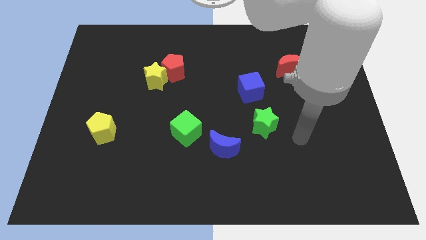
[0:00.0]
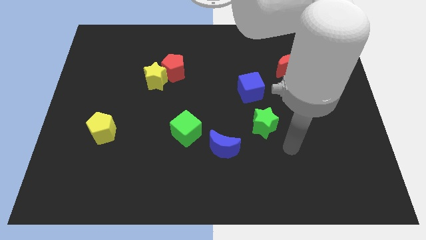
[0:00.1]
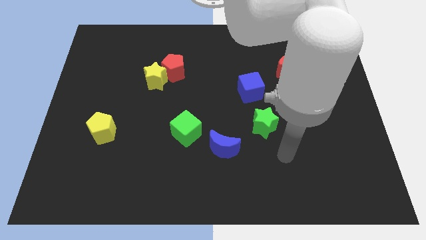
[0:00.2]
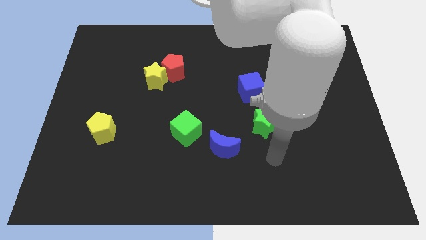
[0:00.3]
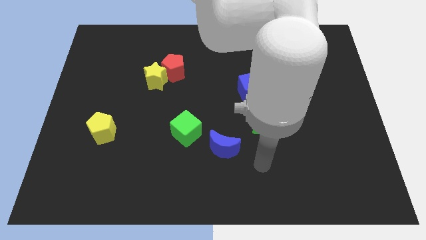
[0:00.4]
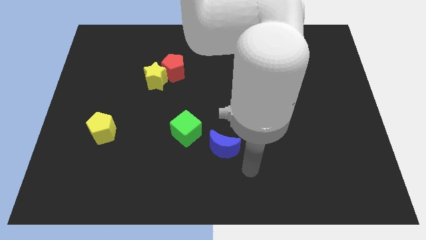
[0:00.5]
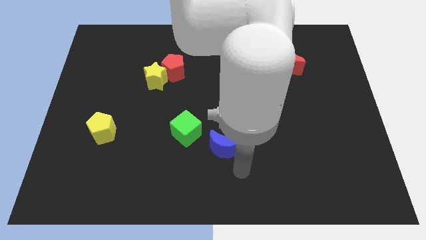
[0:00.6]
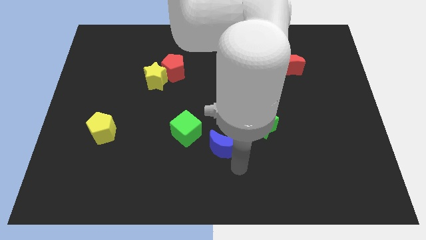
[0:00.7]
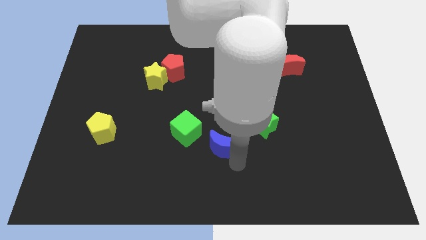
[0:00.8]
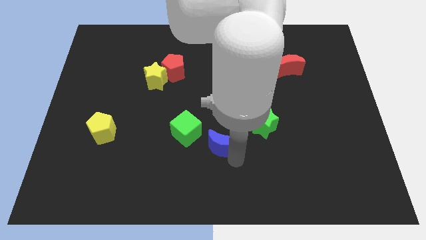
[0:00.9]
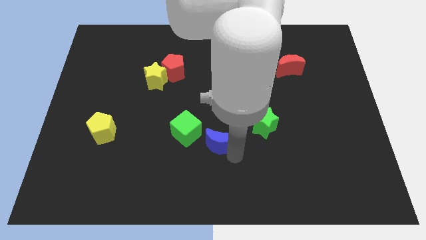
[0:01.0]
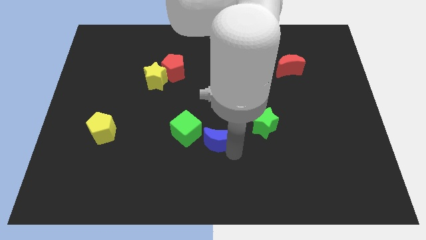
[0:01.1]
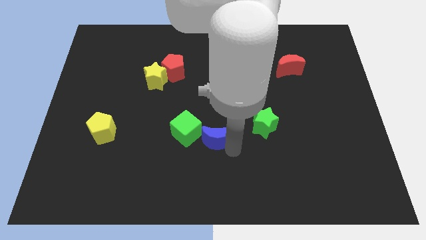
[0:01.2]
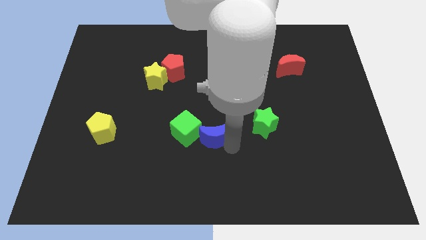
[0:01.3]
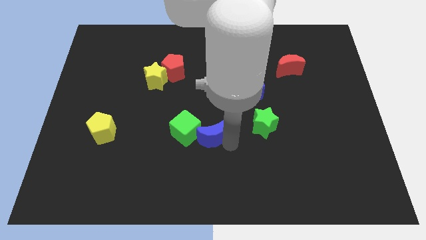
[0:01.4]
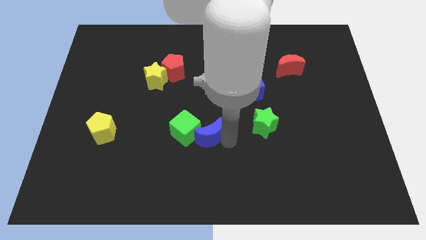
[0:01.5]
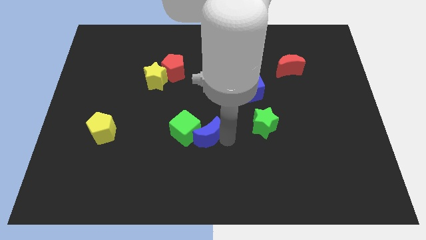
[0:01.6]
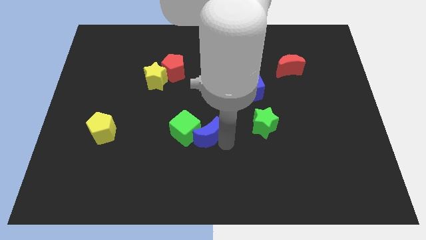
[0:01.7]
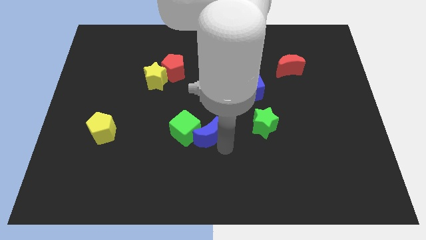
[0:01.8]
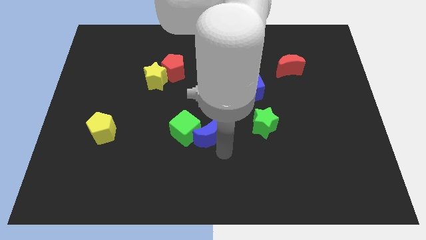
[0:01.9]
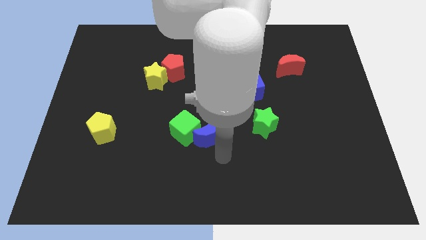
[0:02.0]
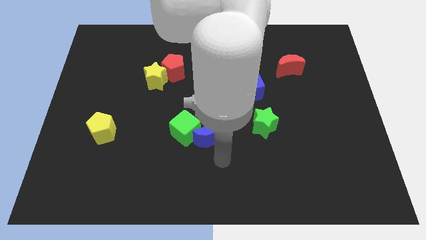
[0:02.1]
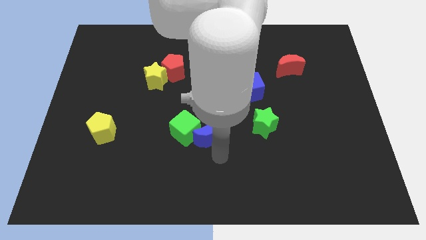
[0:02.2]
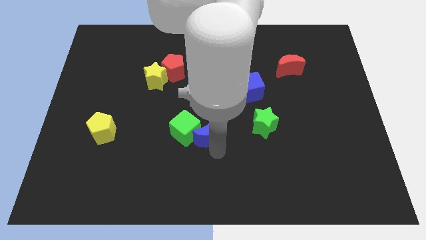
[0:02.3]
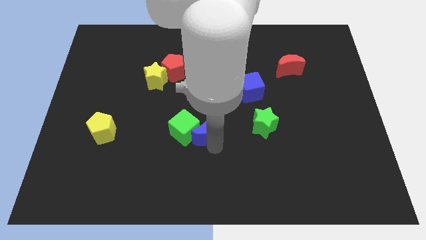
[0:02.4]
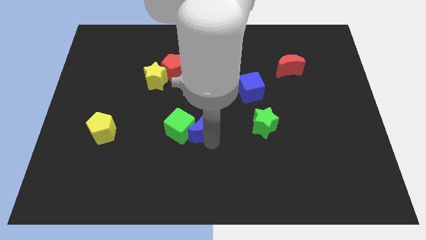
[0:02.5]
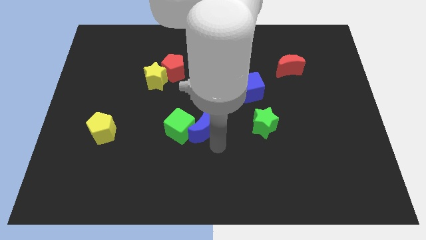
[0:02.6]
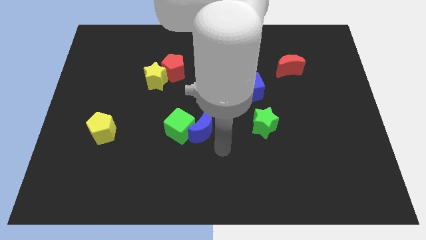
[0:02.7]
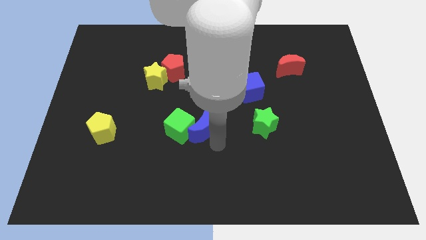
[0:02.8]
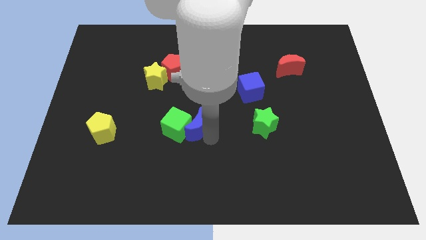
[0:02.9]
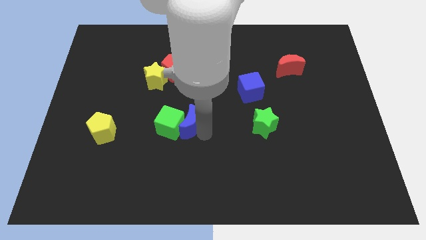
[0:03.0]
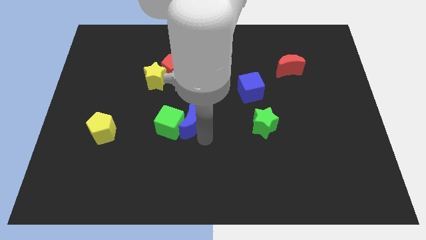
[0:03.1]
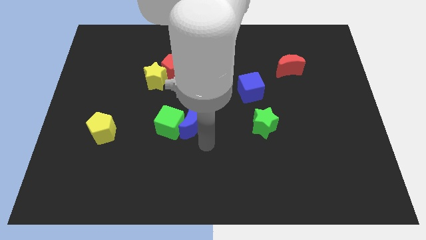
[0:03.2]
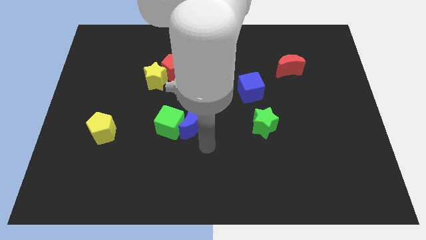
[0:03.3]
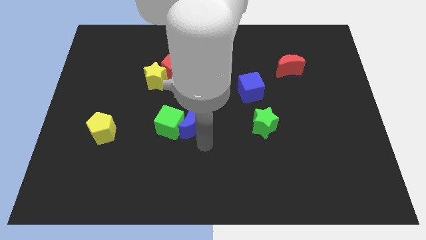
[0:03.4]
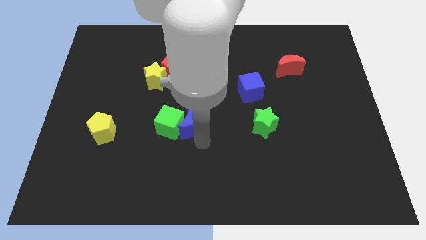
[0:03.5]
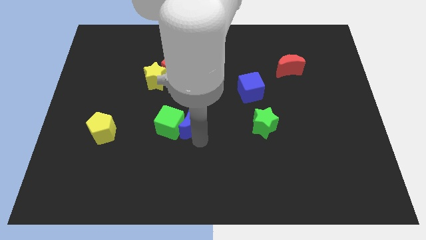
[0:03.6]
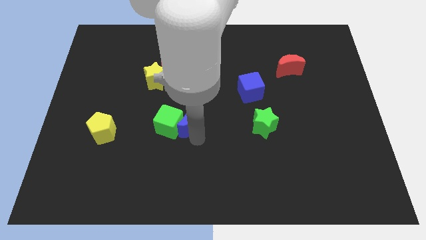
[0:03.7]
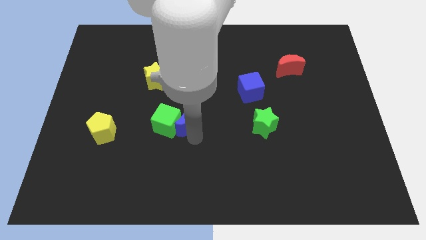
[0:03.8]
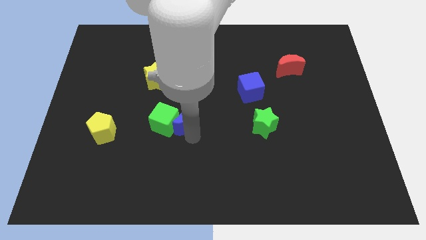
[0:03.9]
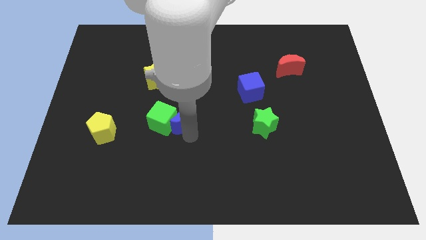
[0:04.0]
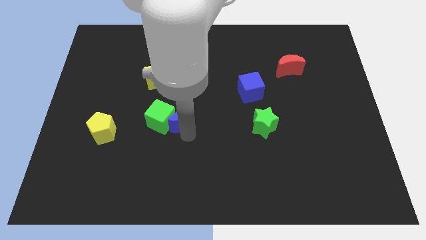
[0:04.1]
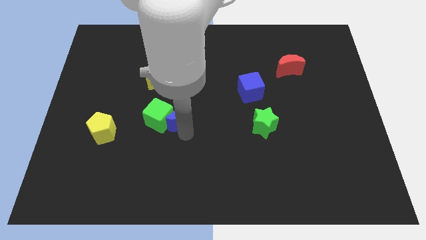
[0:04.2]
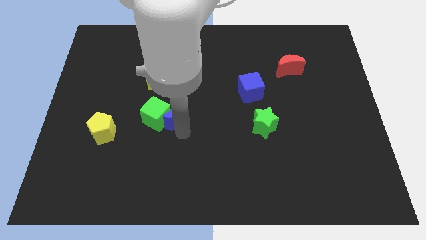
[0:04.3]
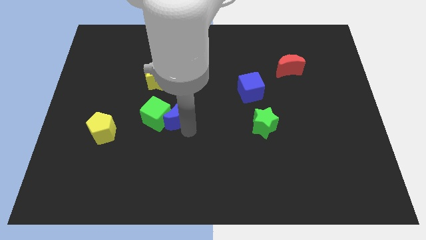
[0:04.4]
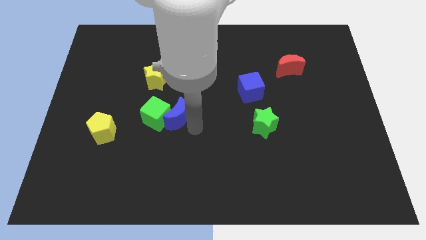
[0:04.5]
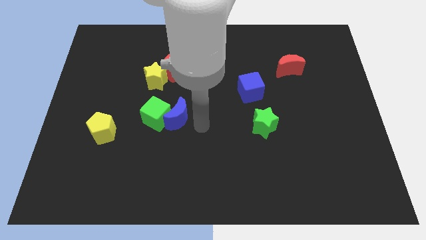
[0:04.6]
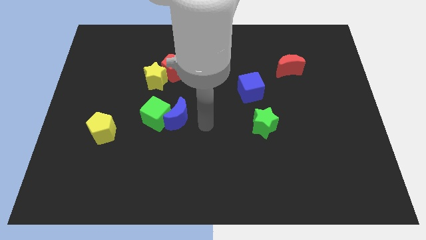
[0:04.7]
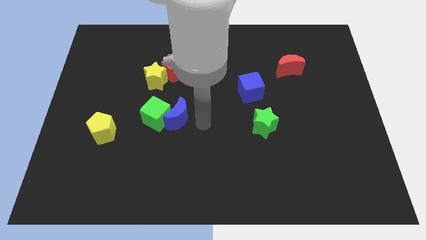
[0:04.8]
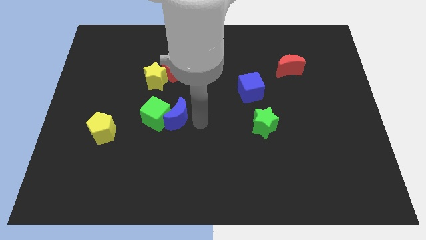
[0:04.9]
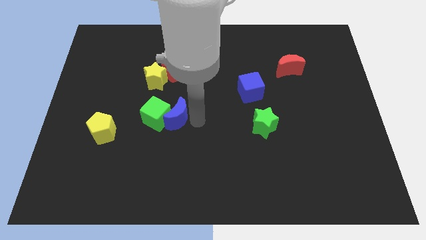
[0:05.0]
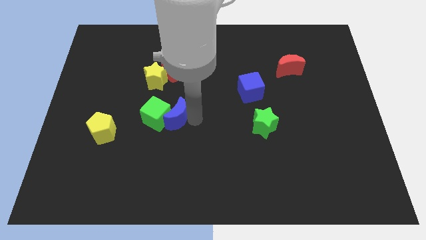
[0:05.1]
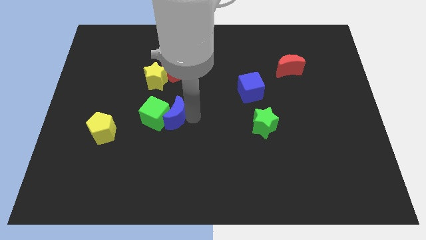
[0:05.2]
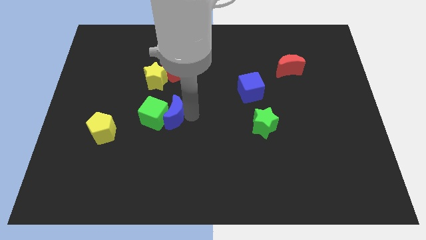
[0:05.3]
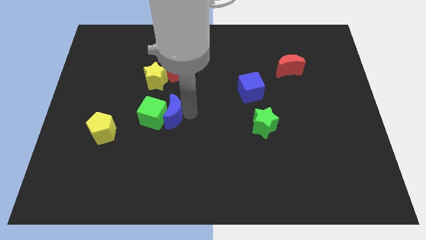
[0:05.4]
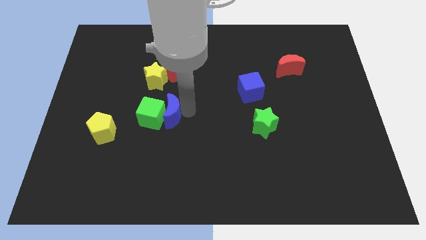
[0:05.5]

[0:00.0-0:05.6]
put the blue moon below the yellow star

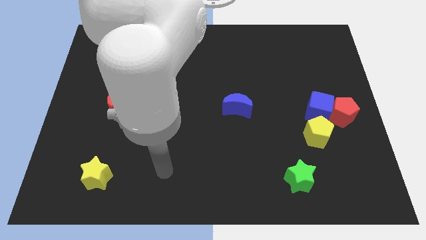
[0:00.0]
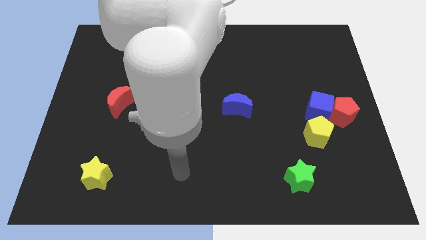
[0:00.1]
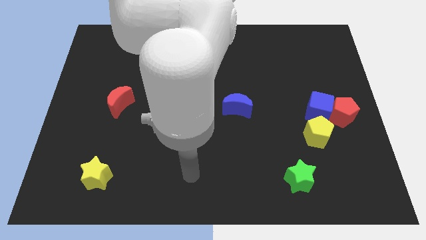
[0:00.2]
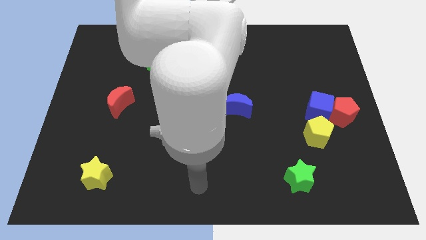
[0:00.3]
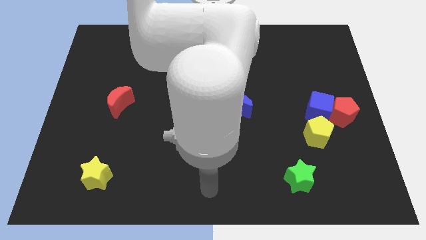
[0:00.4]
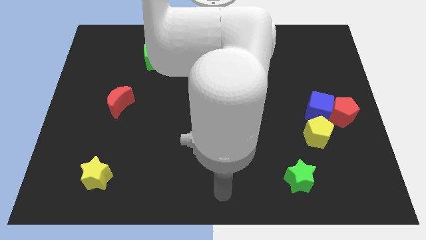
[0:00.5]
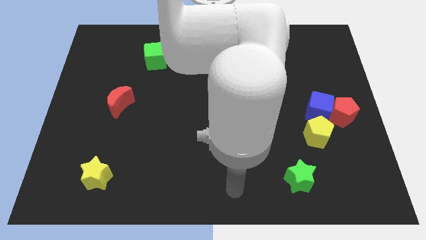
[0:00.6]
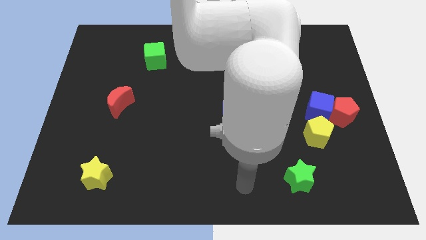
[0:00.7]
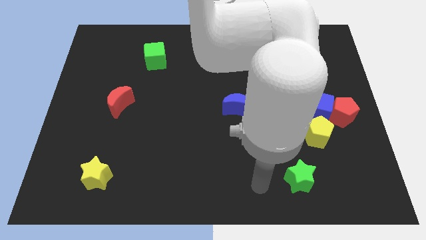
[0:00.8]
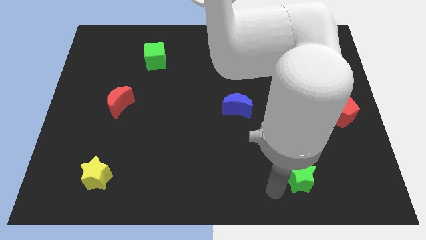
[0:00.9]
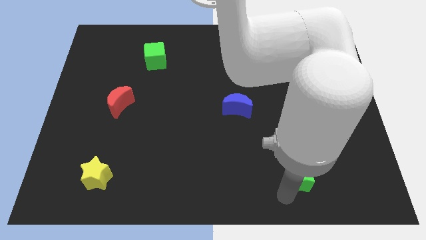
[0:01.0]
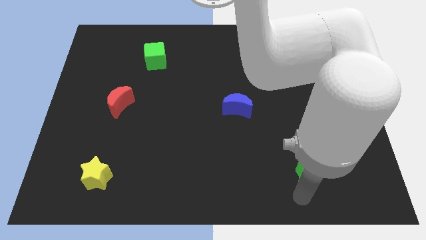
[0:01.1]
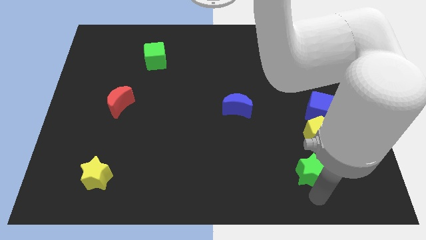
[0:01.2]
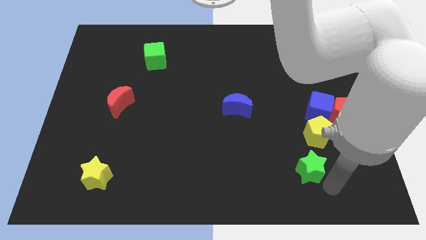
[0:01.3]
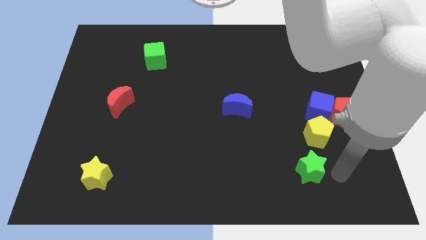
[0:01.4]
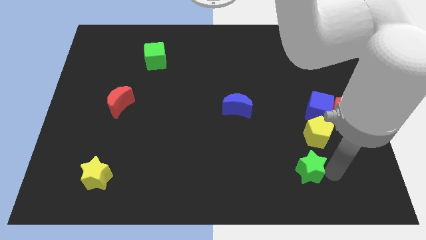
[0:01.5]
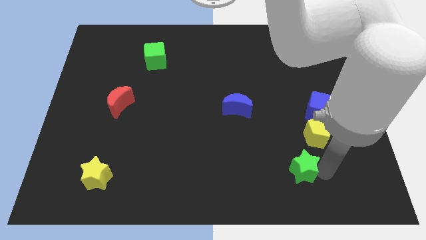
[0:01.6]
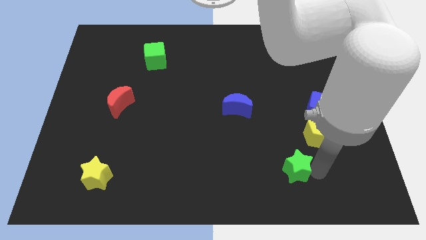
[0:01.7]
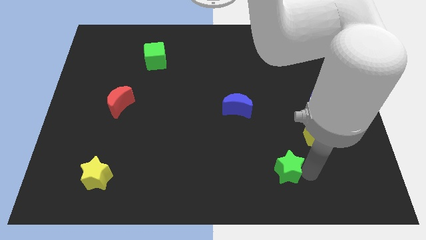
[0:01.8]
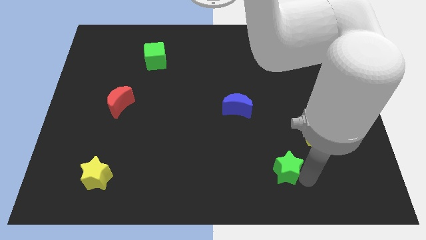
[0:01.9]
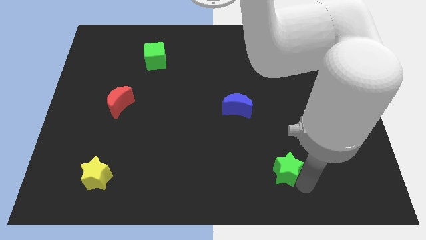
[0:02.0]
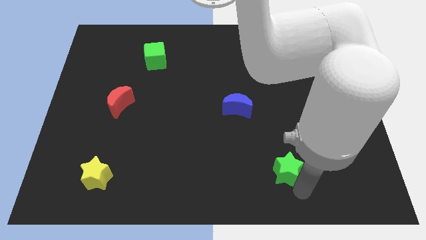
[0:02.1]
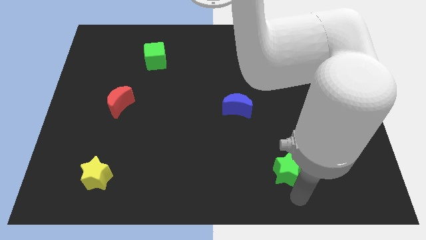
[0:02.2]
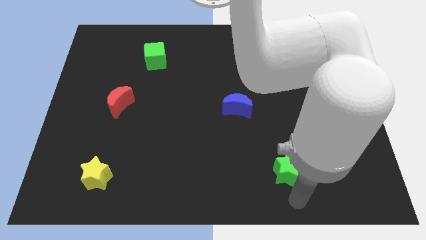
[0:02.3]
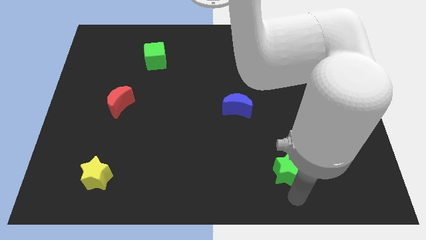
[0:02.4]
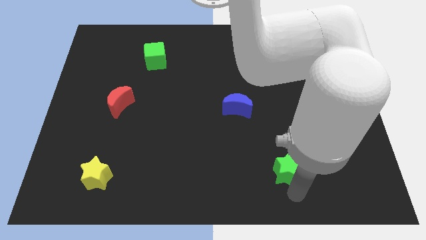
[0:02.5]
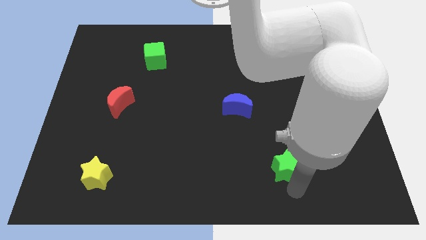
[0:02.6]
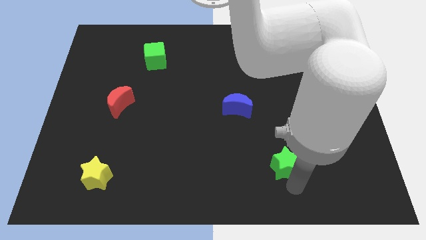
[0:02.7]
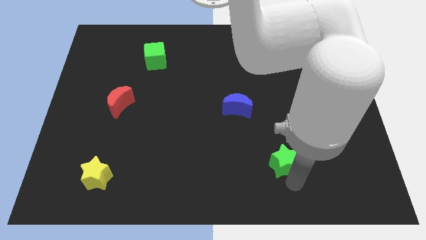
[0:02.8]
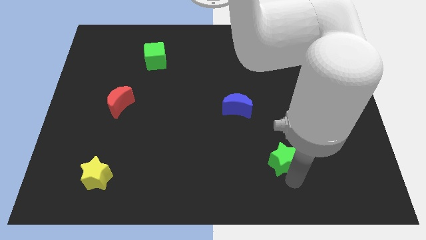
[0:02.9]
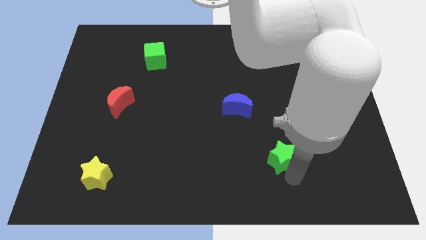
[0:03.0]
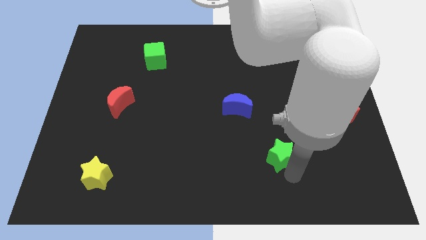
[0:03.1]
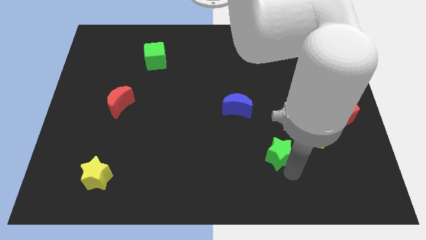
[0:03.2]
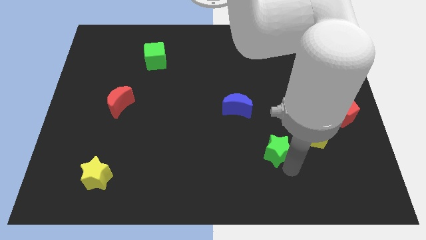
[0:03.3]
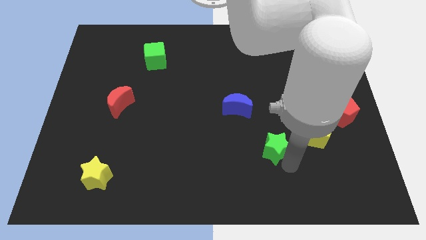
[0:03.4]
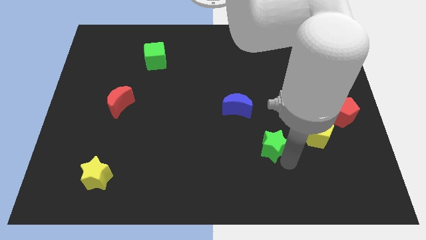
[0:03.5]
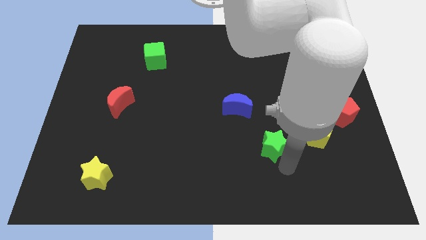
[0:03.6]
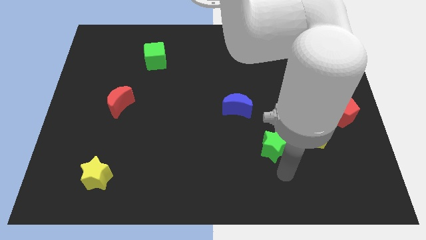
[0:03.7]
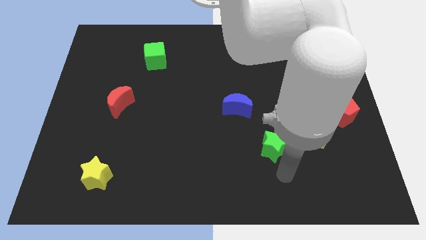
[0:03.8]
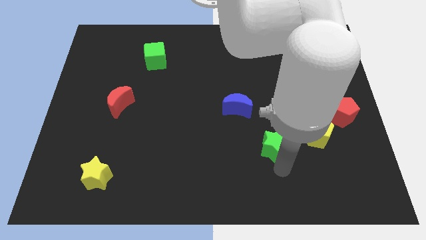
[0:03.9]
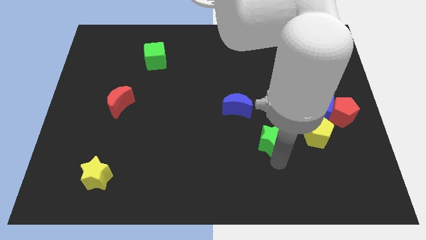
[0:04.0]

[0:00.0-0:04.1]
push the green star to the bottom right side of the blue moon
